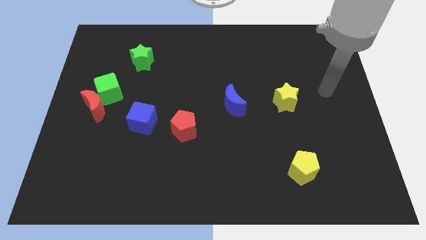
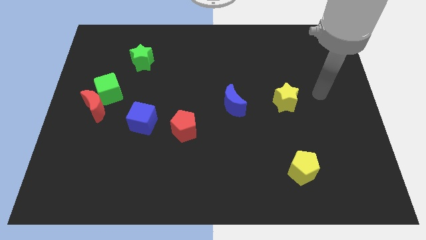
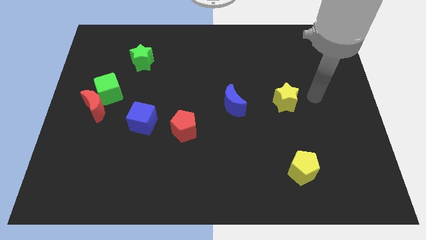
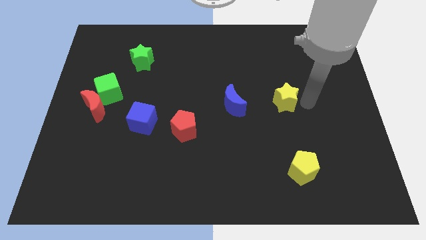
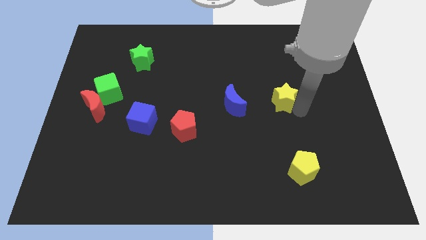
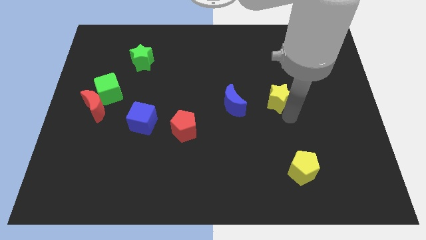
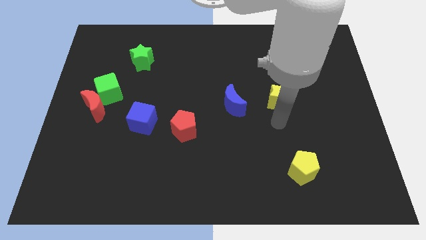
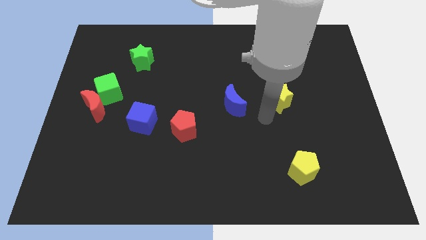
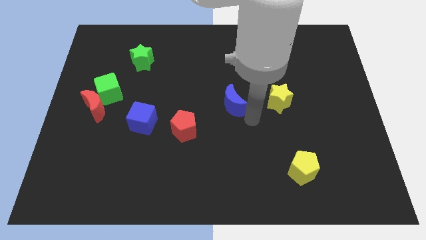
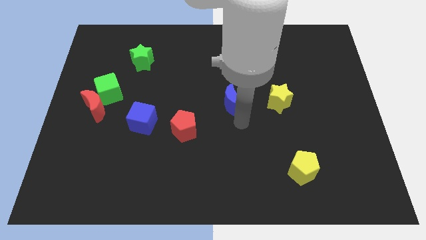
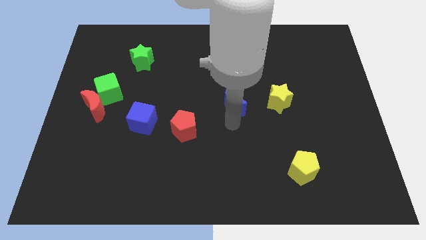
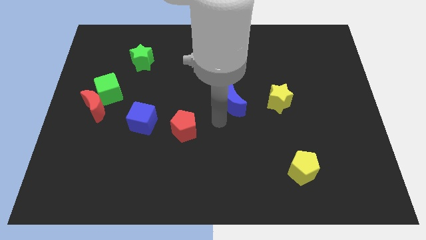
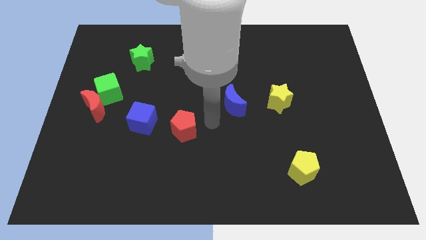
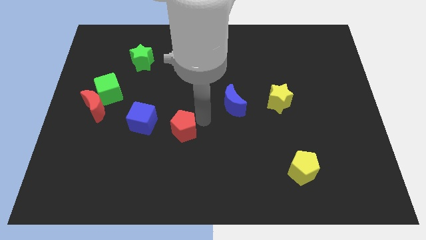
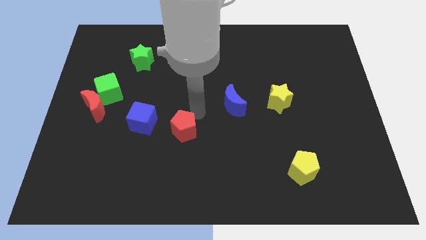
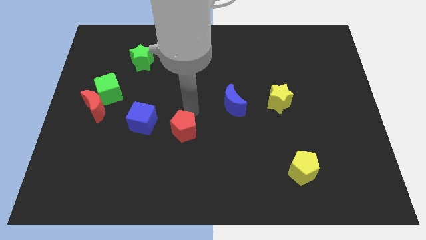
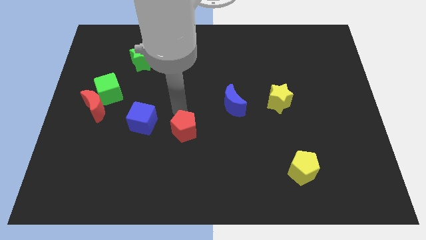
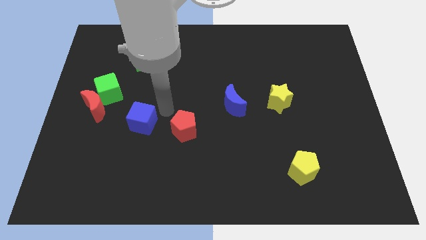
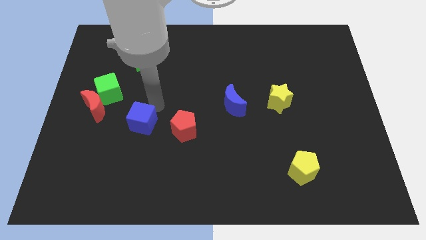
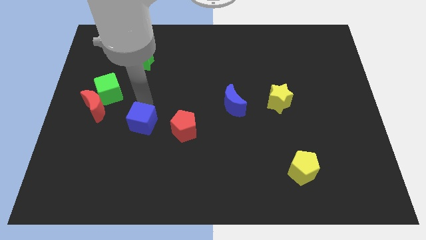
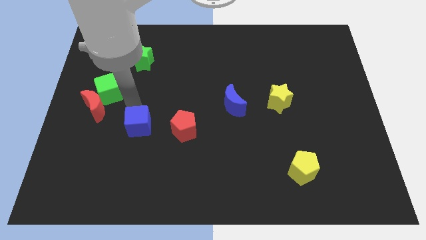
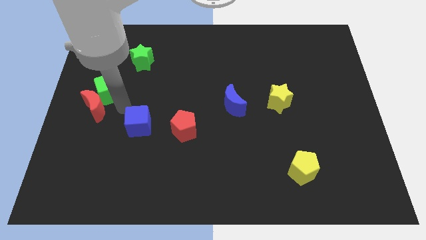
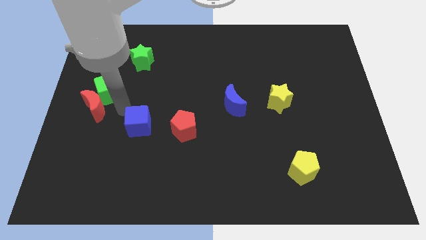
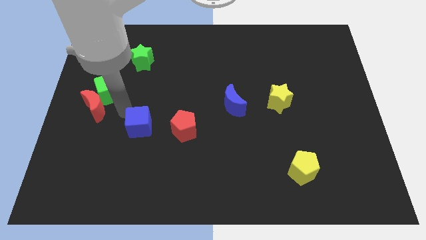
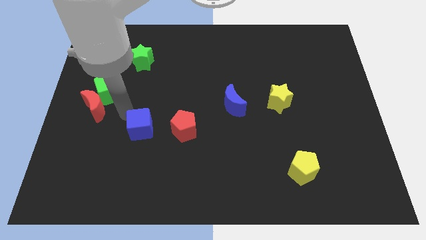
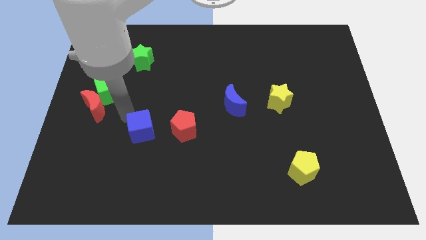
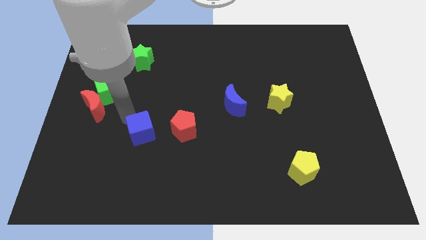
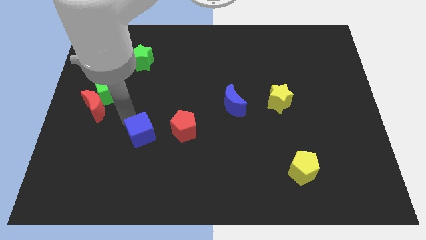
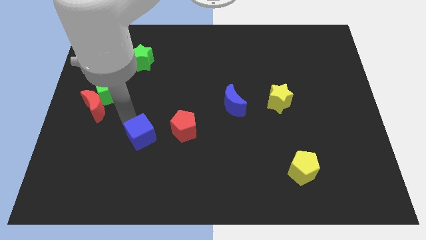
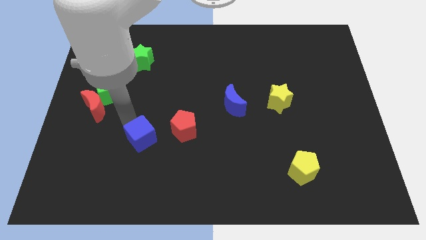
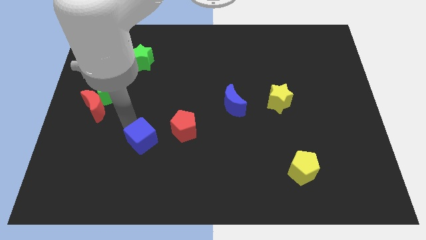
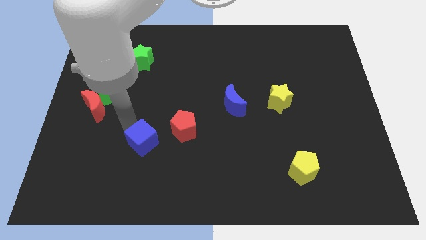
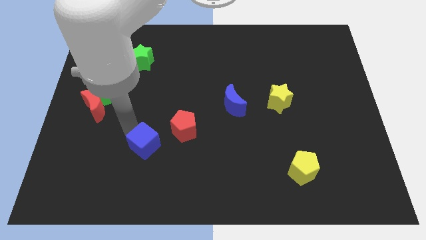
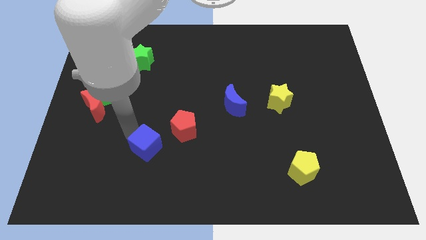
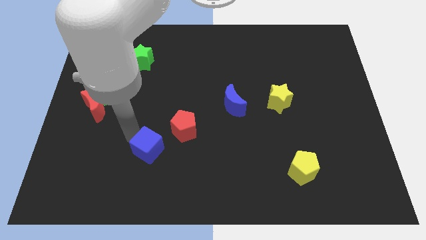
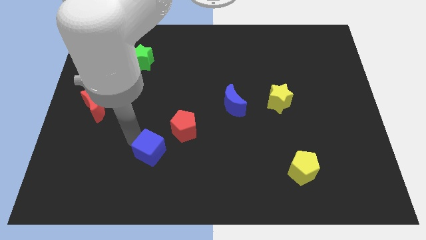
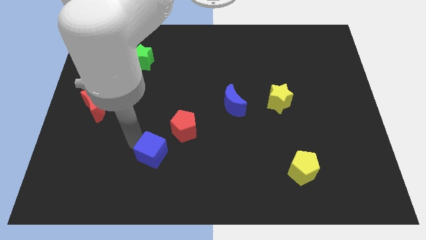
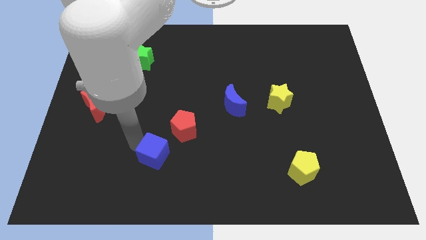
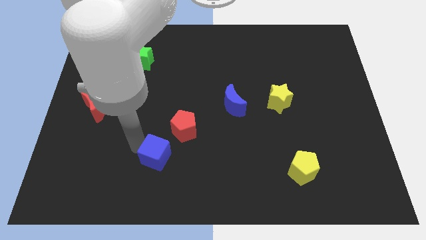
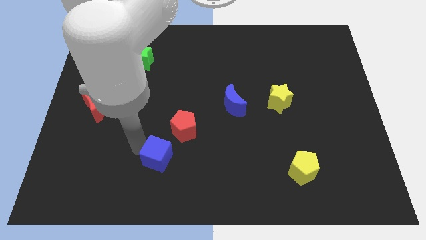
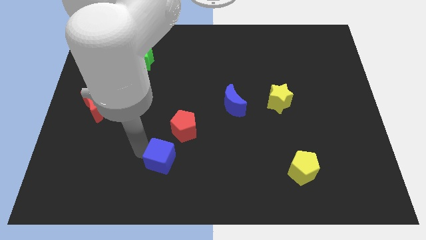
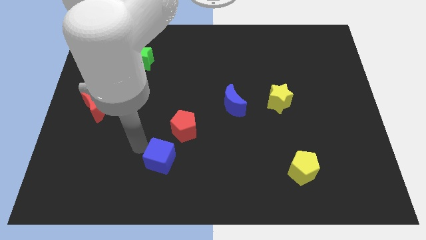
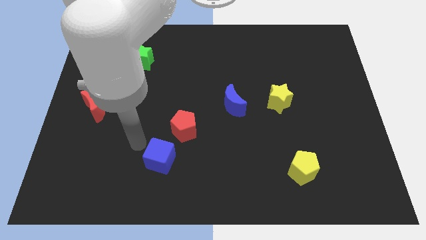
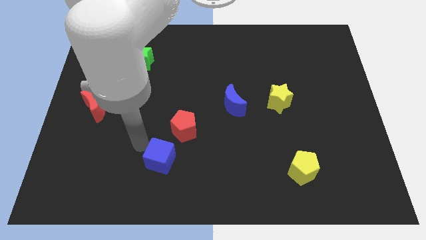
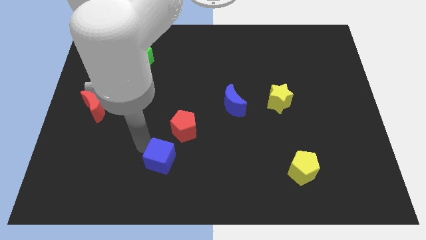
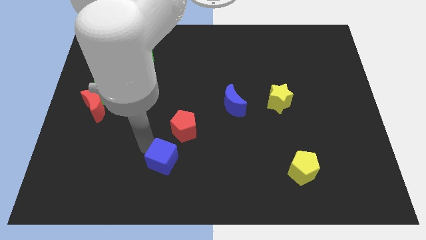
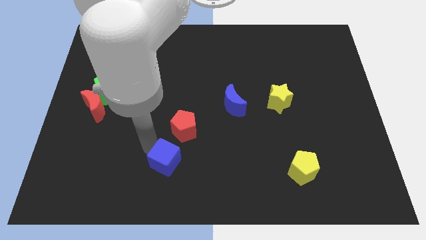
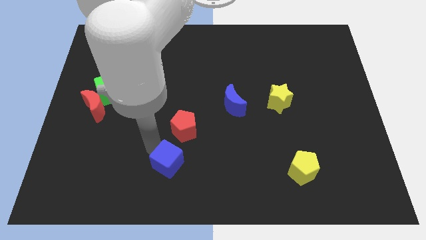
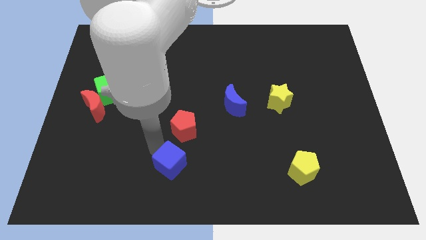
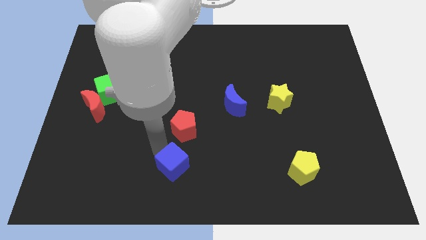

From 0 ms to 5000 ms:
slide the blue cube to the bottom side

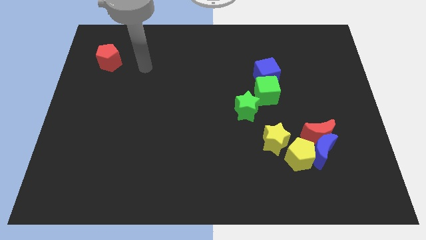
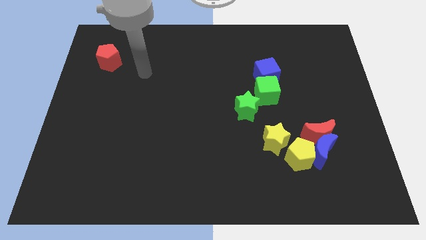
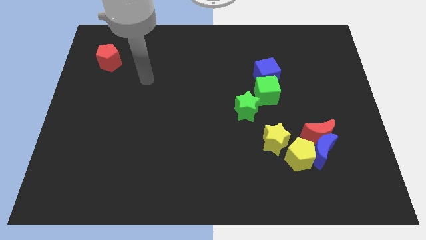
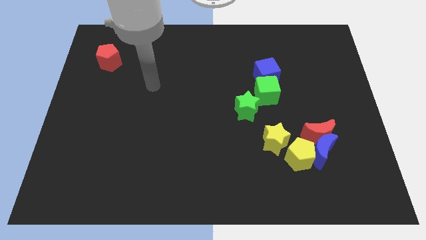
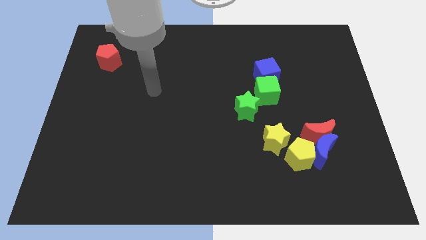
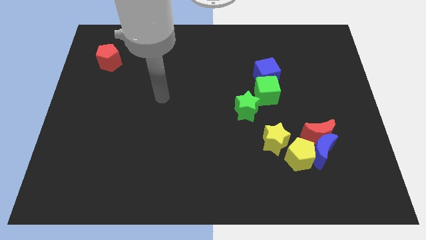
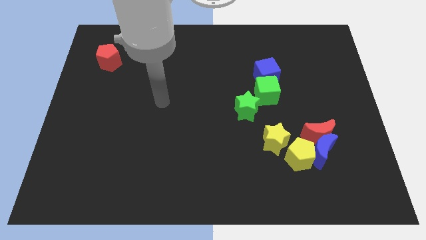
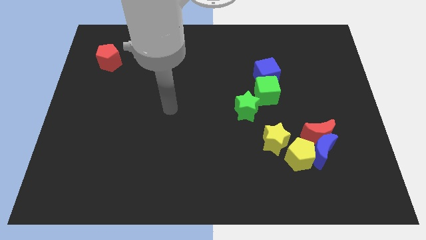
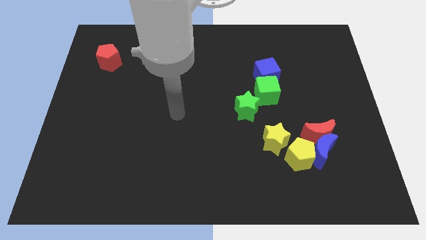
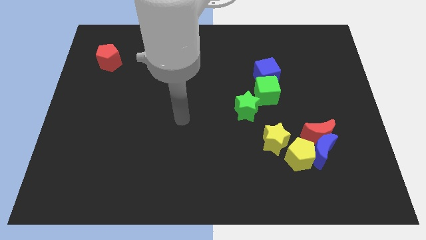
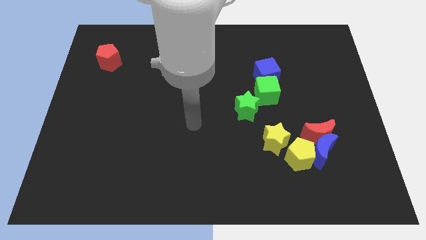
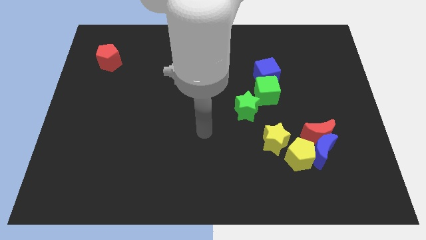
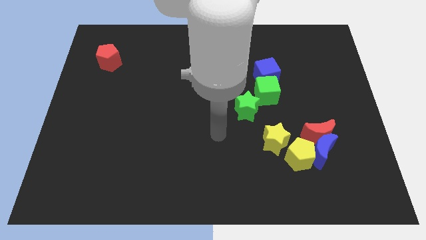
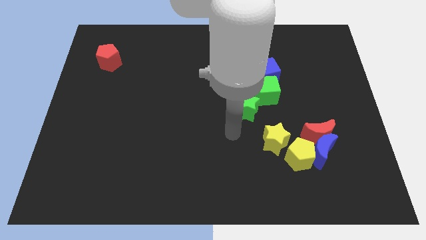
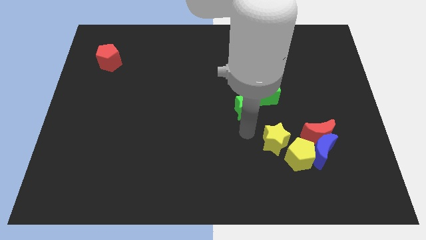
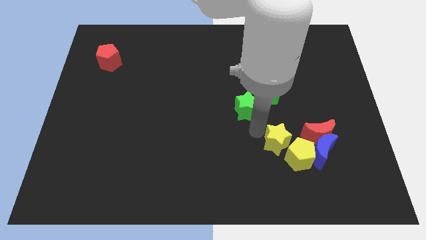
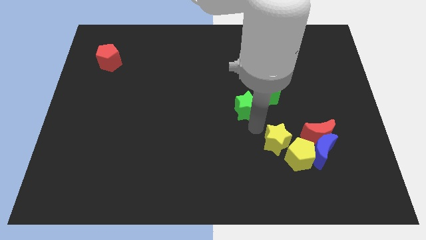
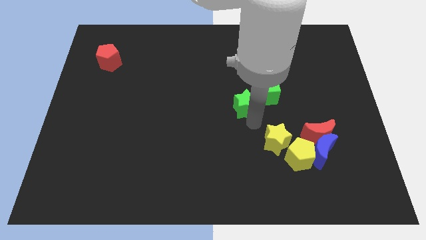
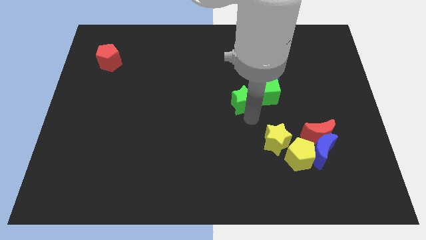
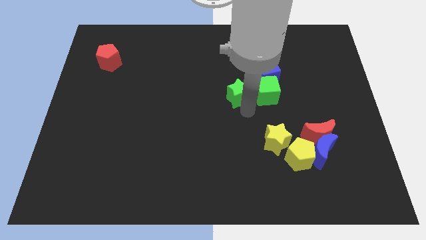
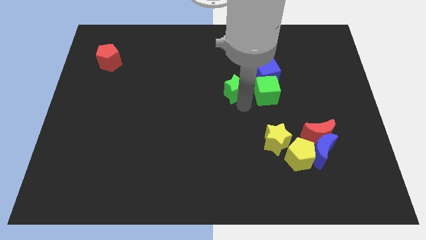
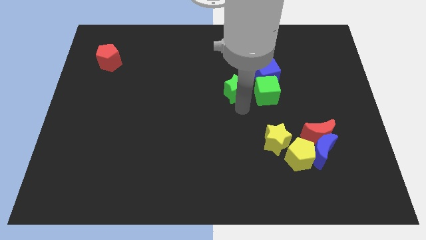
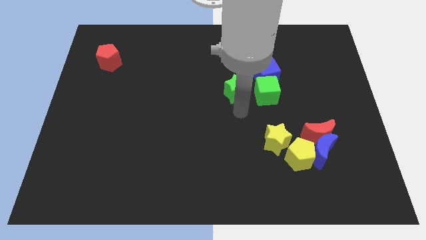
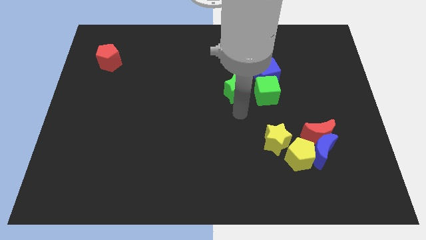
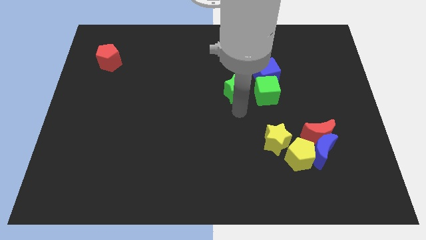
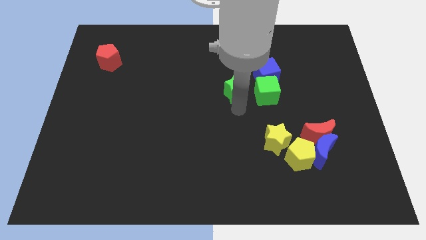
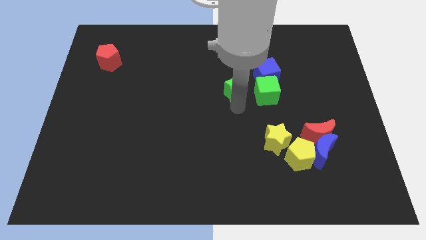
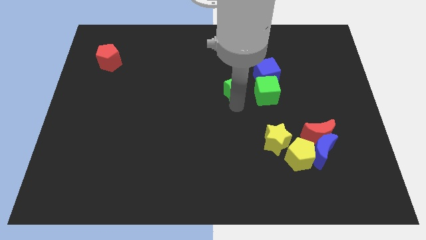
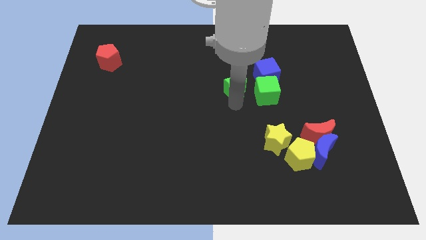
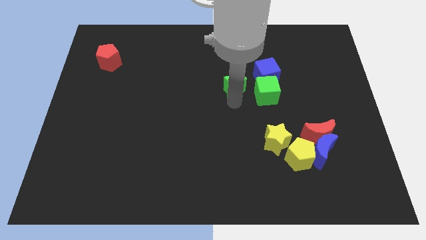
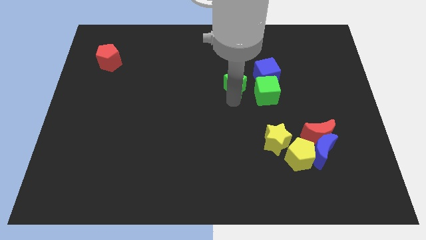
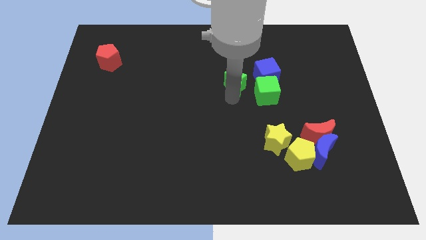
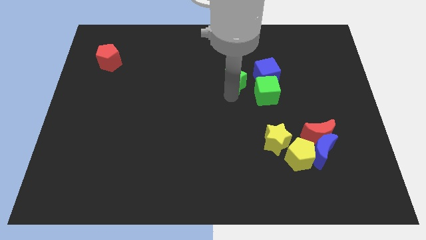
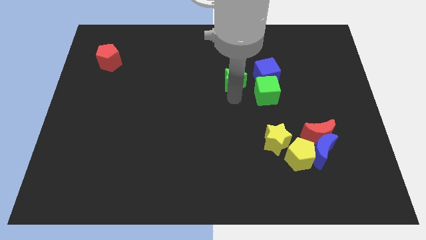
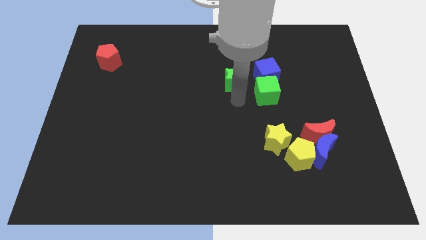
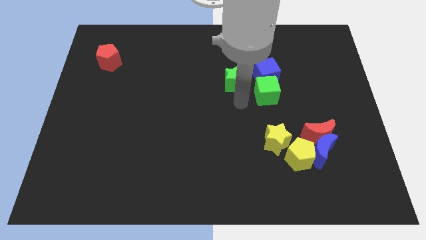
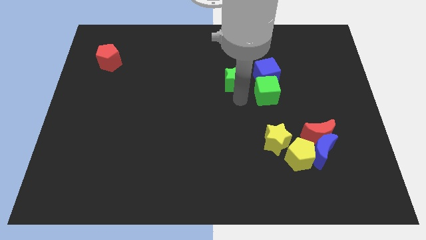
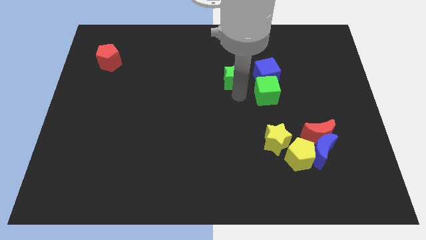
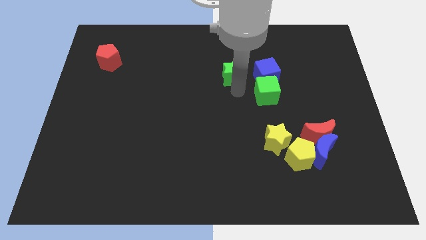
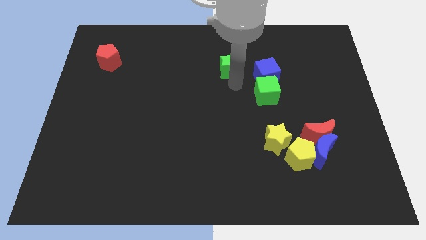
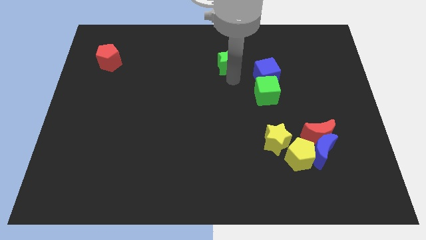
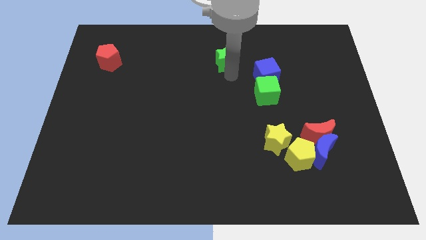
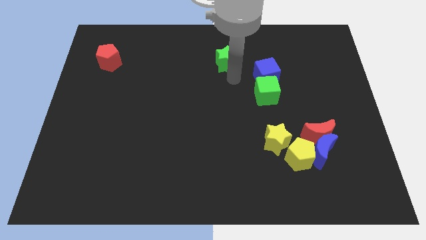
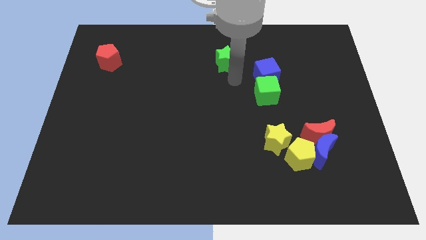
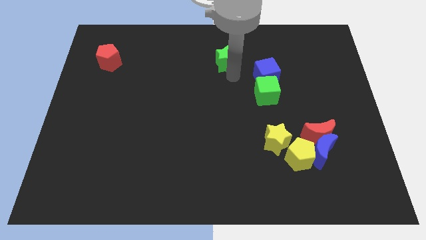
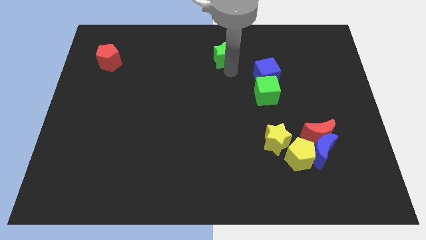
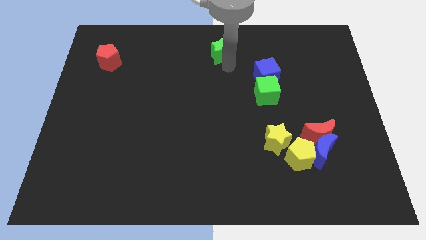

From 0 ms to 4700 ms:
put the green star to the top
